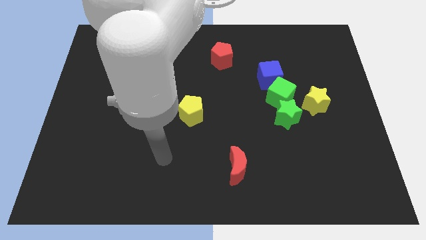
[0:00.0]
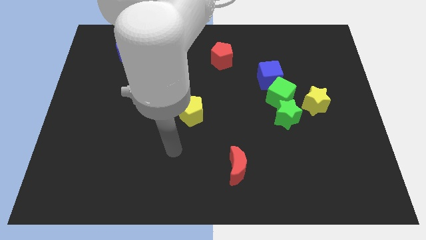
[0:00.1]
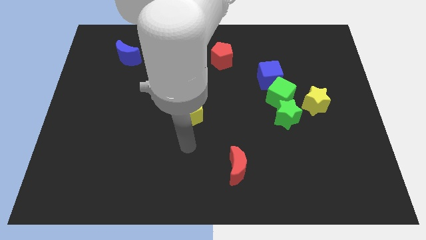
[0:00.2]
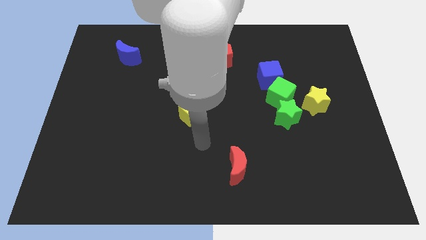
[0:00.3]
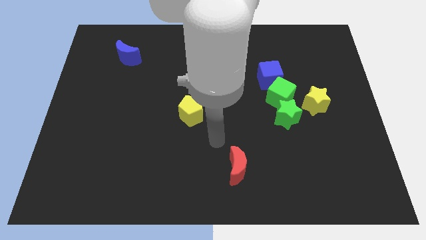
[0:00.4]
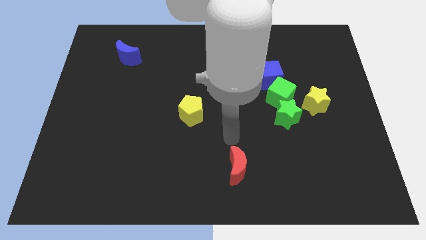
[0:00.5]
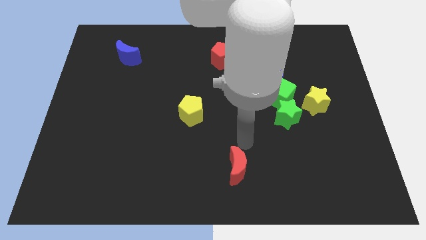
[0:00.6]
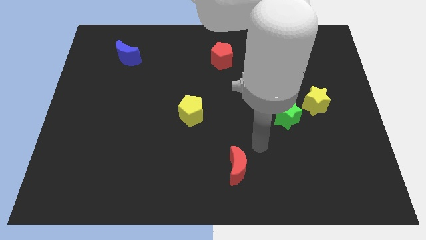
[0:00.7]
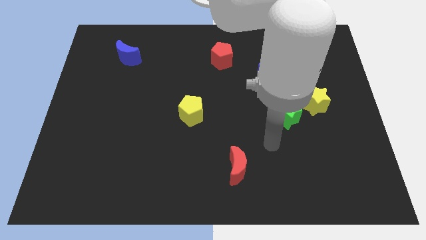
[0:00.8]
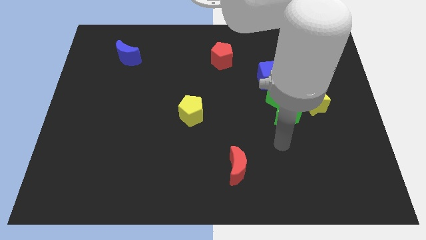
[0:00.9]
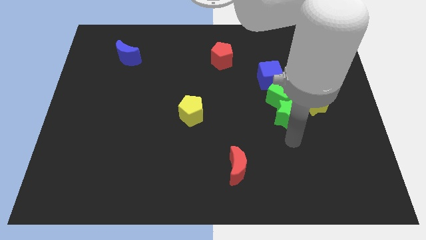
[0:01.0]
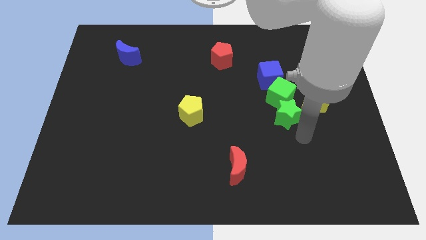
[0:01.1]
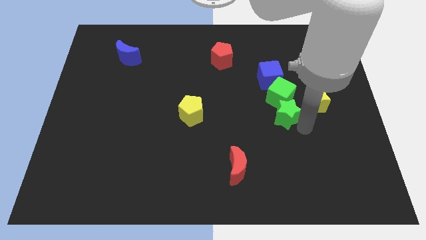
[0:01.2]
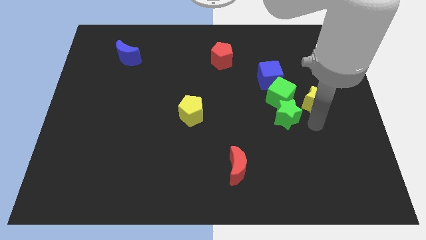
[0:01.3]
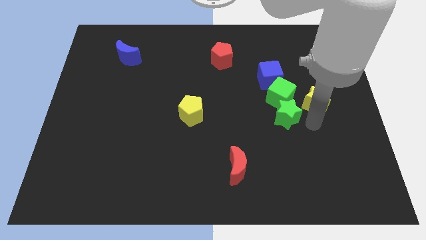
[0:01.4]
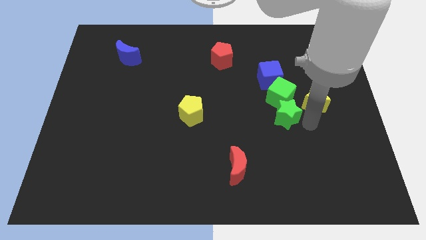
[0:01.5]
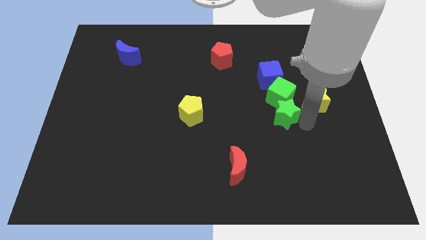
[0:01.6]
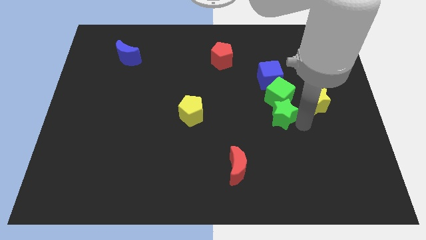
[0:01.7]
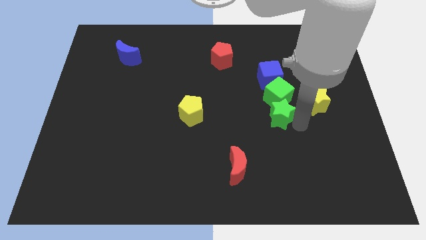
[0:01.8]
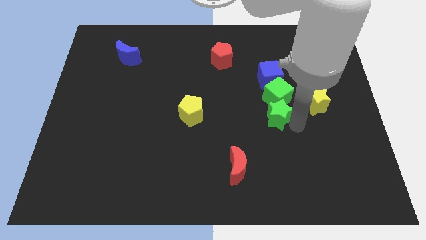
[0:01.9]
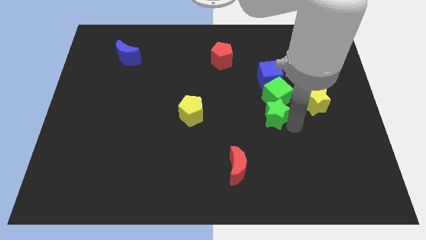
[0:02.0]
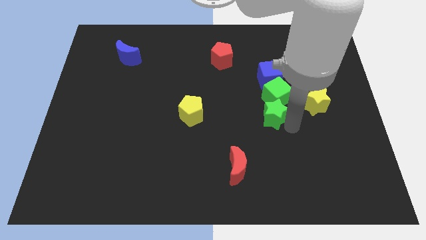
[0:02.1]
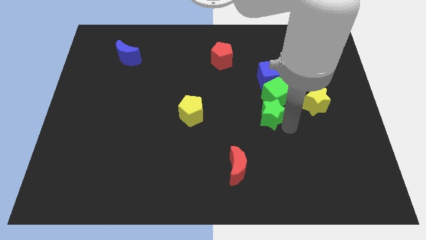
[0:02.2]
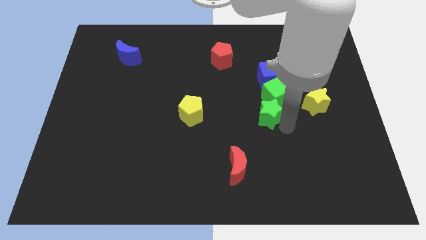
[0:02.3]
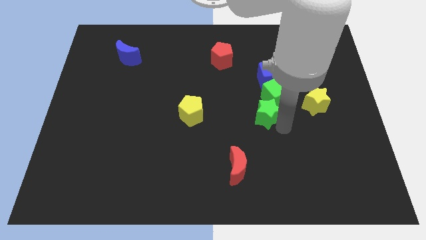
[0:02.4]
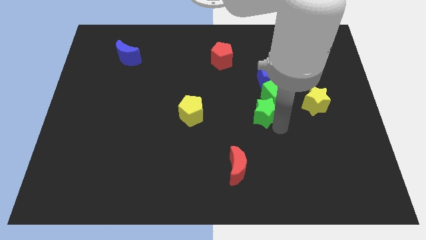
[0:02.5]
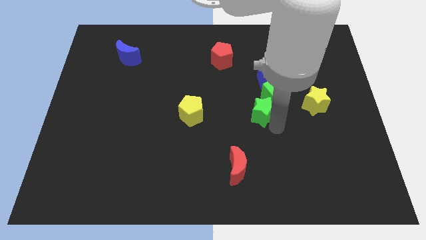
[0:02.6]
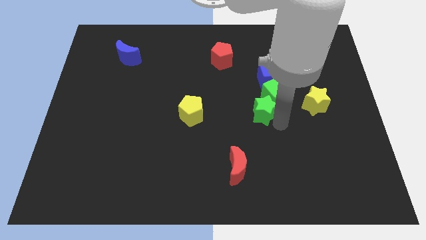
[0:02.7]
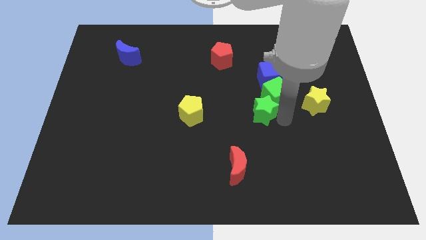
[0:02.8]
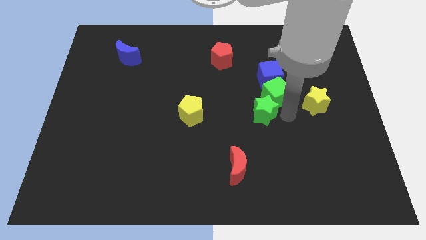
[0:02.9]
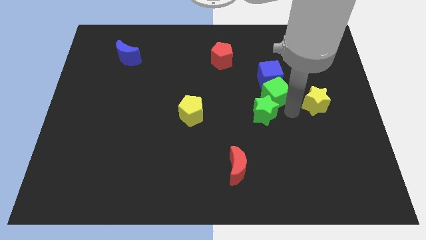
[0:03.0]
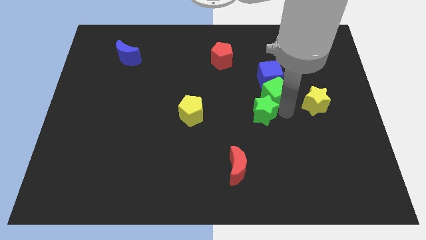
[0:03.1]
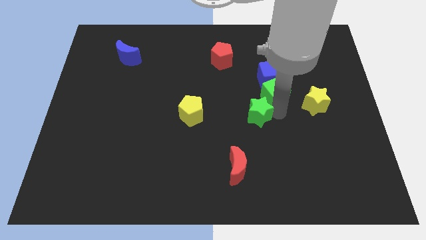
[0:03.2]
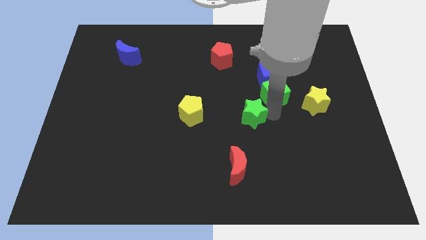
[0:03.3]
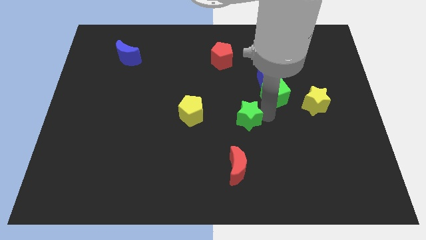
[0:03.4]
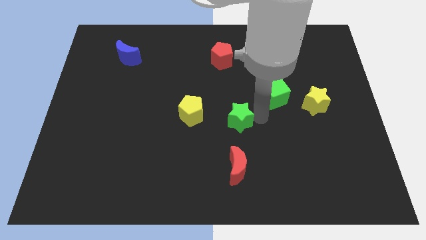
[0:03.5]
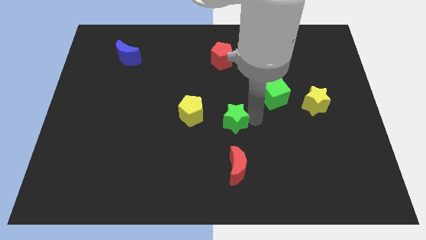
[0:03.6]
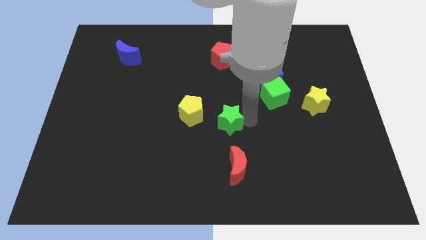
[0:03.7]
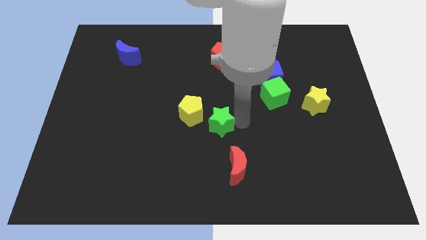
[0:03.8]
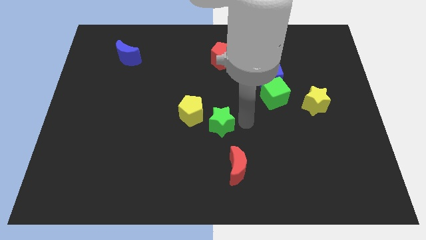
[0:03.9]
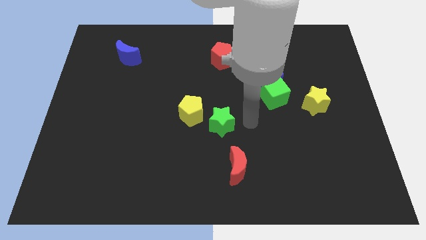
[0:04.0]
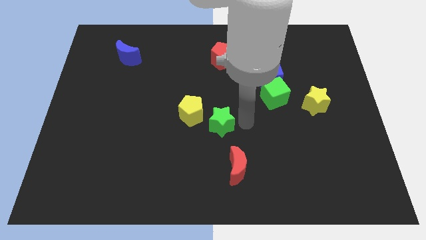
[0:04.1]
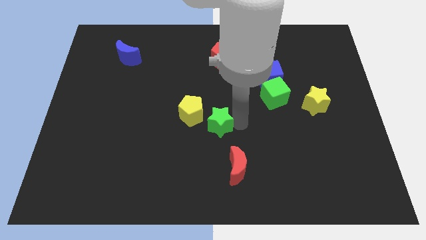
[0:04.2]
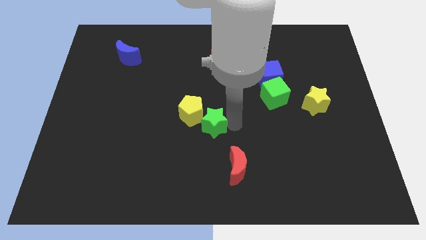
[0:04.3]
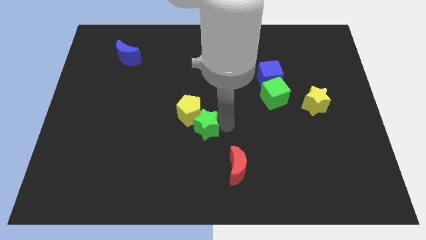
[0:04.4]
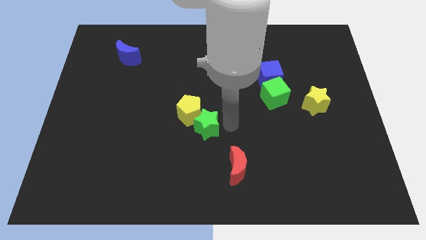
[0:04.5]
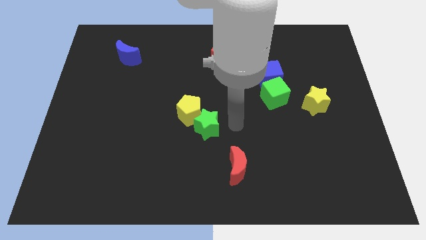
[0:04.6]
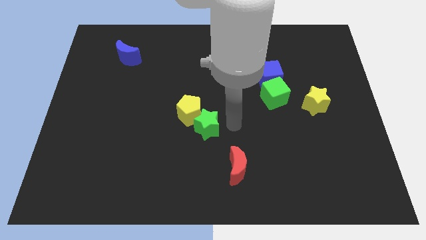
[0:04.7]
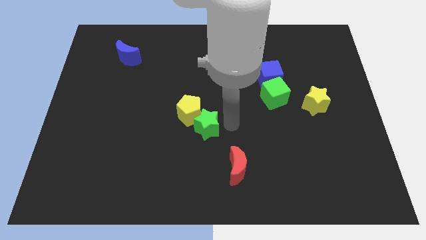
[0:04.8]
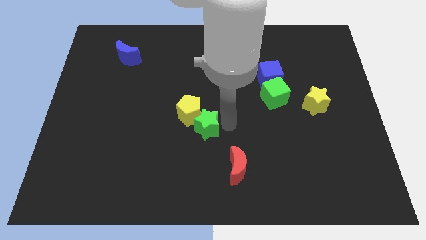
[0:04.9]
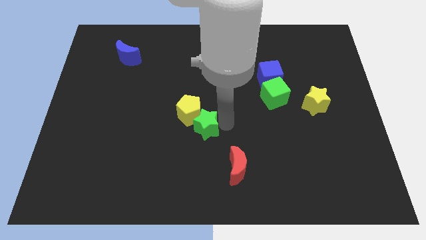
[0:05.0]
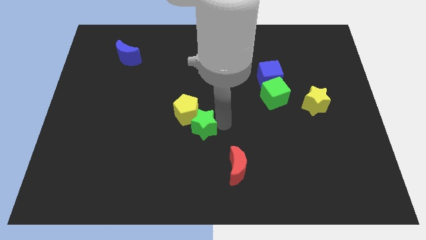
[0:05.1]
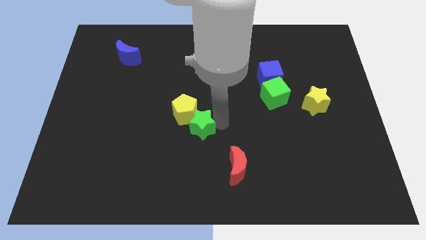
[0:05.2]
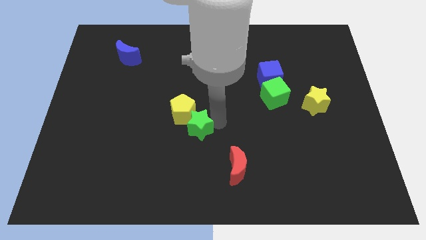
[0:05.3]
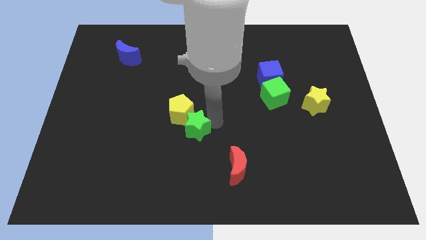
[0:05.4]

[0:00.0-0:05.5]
slide the green star to the left

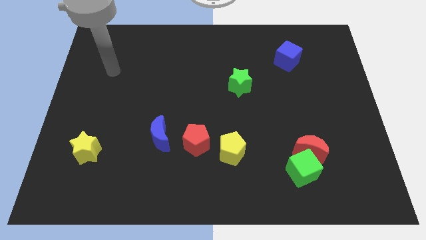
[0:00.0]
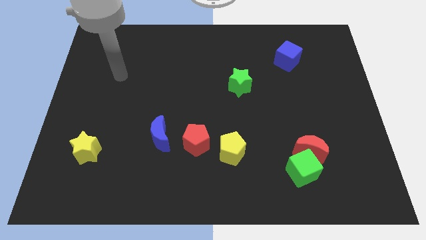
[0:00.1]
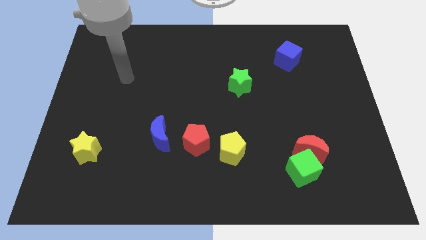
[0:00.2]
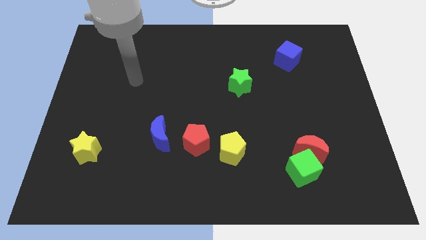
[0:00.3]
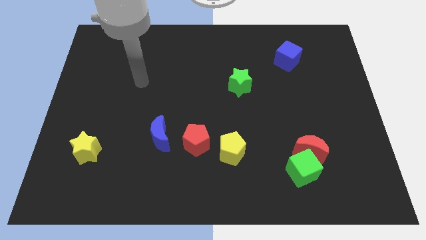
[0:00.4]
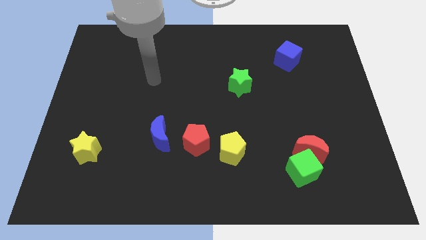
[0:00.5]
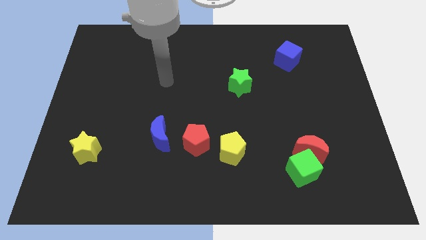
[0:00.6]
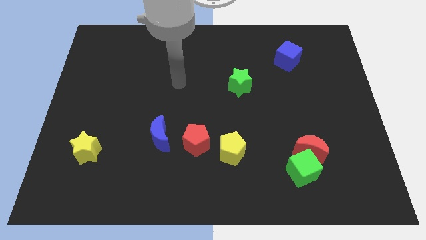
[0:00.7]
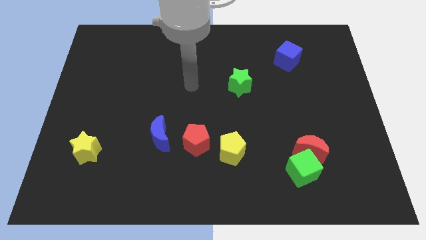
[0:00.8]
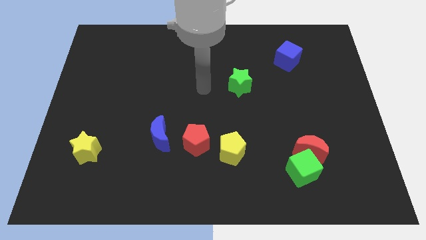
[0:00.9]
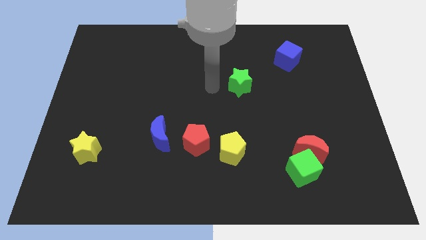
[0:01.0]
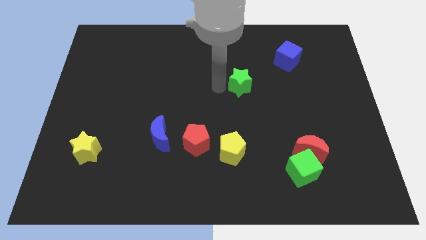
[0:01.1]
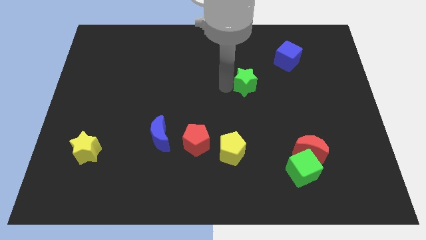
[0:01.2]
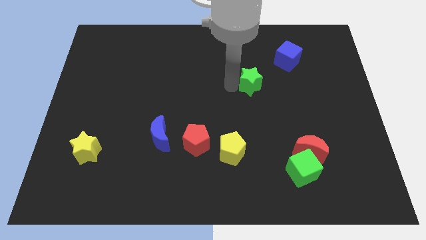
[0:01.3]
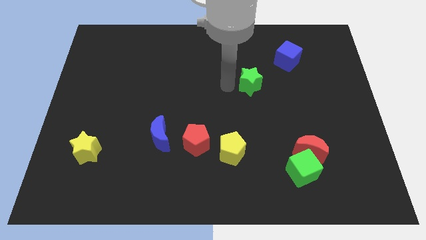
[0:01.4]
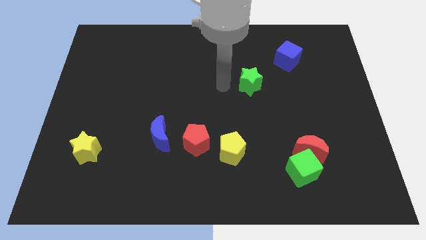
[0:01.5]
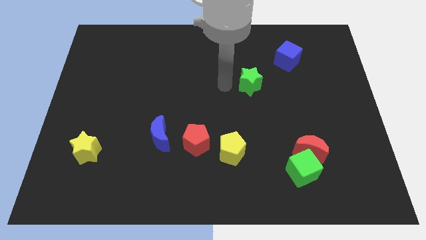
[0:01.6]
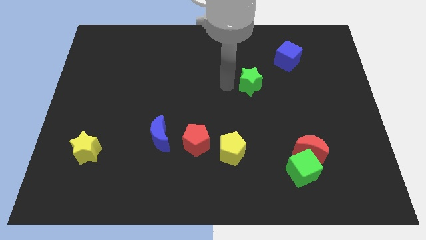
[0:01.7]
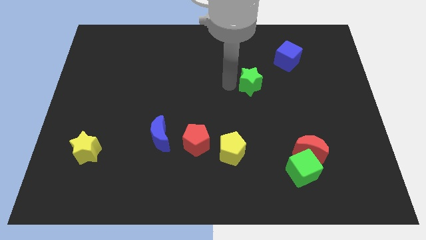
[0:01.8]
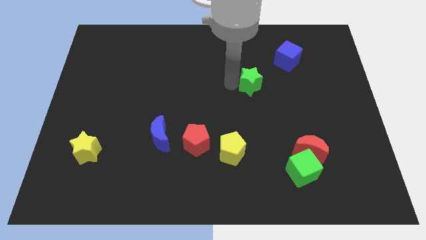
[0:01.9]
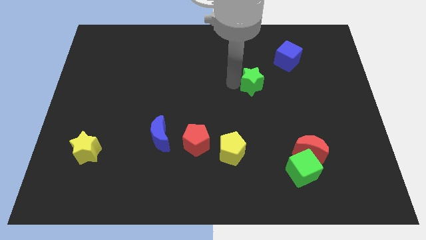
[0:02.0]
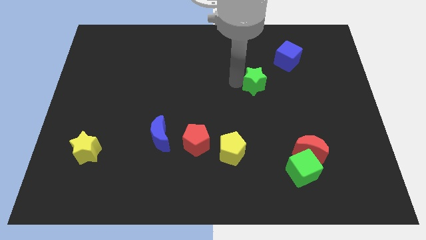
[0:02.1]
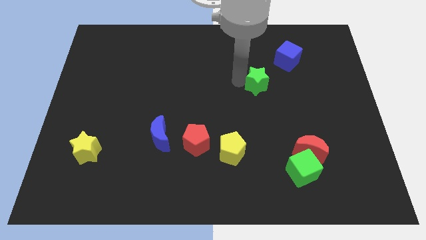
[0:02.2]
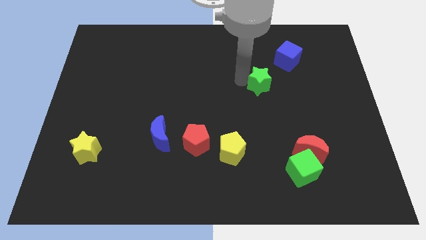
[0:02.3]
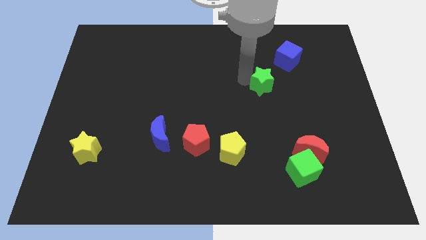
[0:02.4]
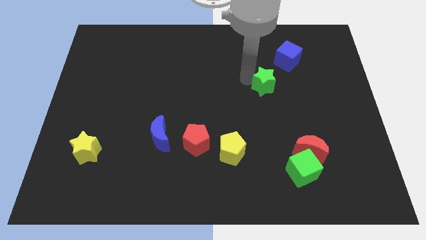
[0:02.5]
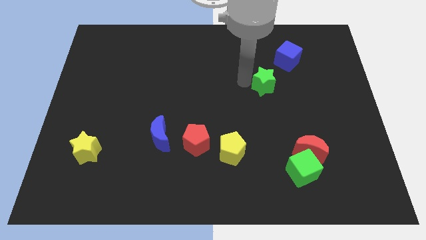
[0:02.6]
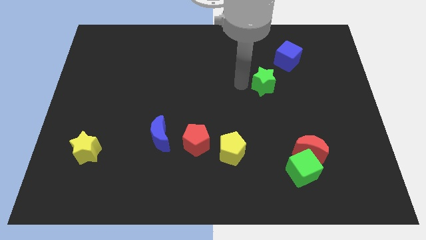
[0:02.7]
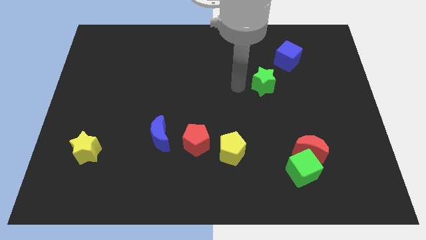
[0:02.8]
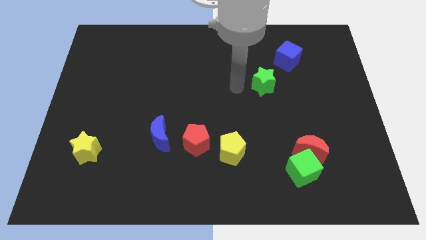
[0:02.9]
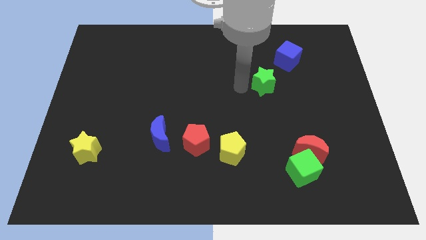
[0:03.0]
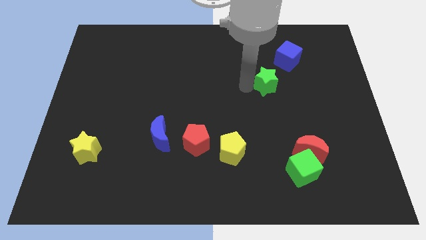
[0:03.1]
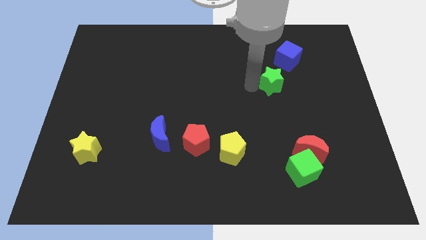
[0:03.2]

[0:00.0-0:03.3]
move the green star to the right slightly
